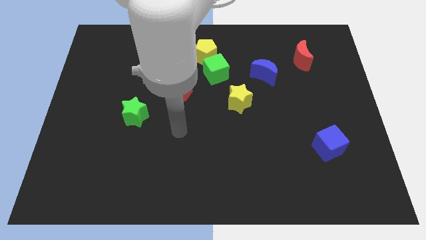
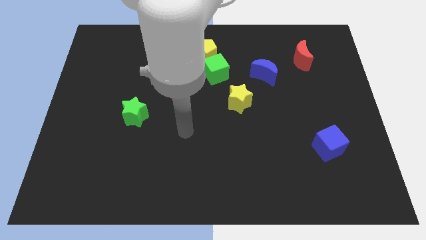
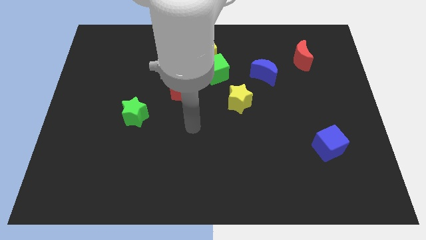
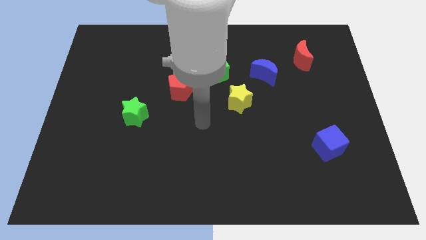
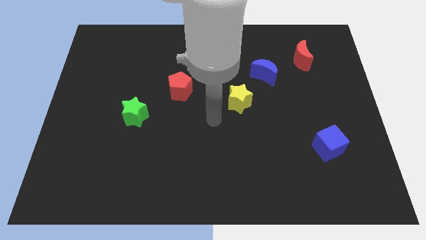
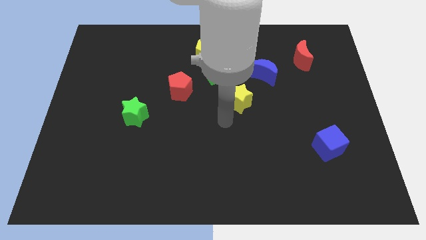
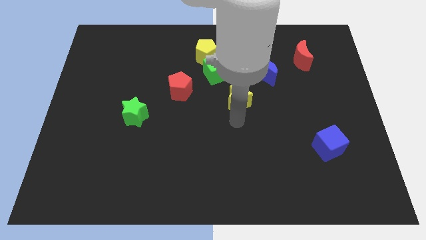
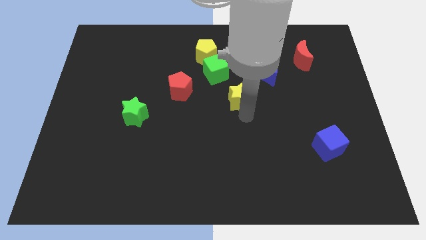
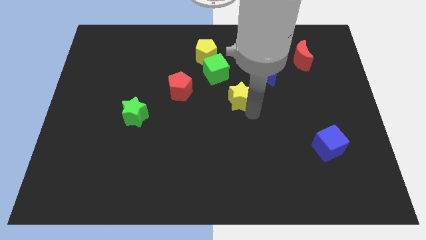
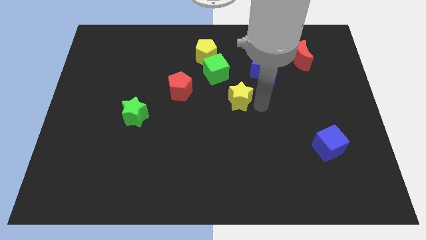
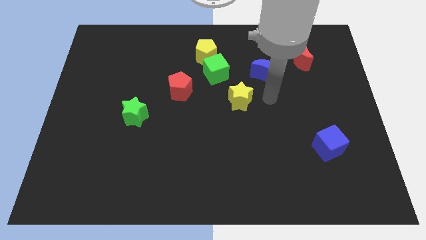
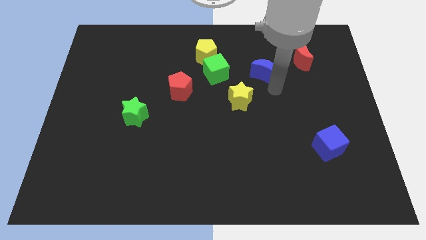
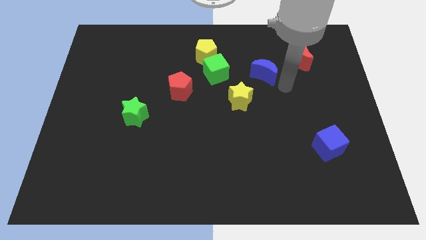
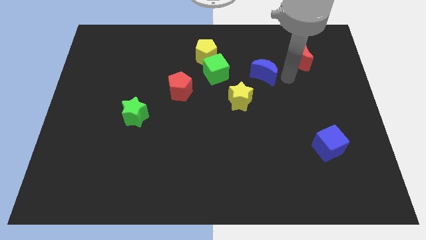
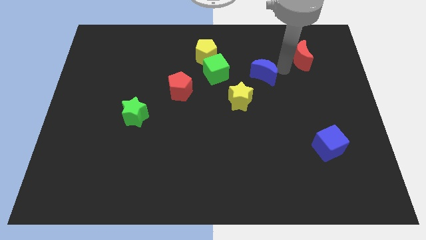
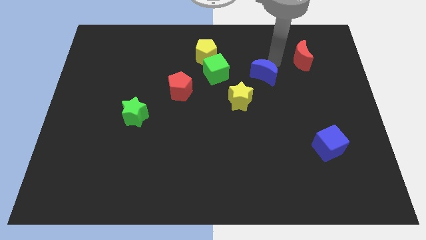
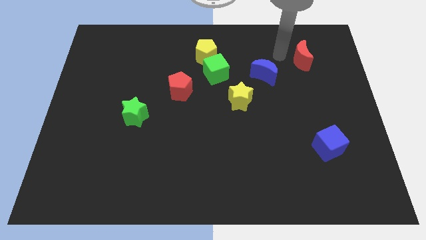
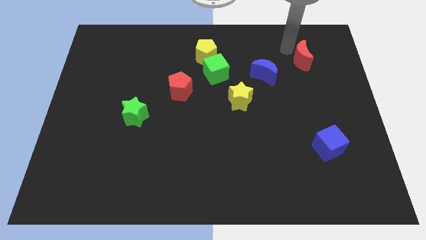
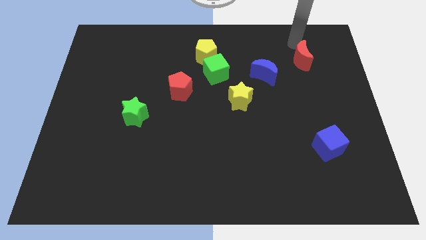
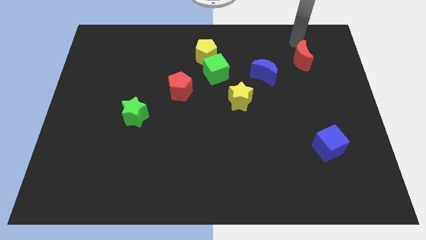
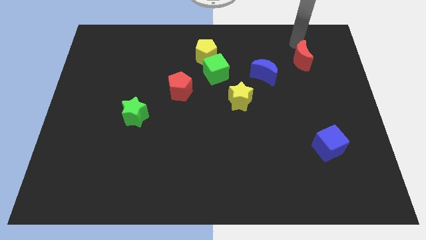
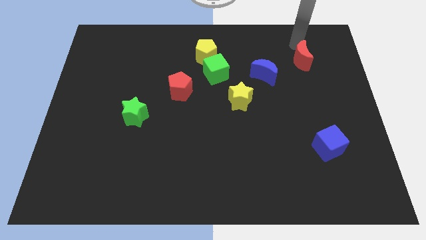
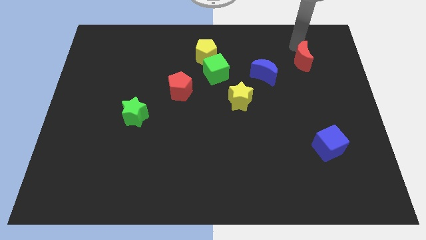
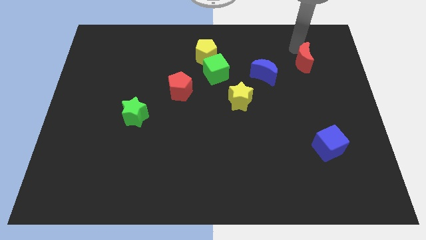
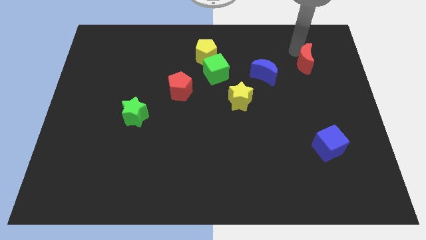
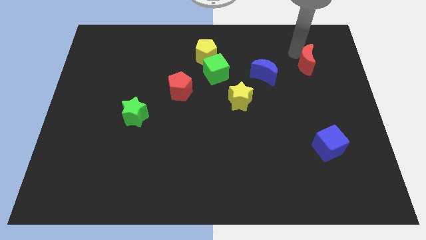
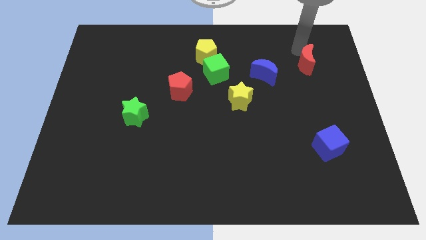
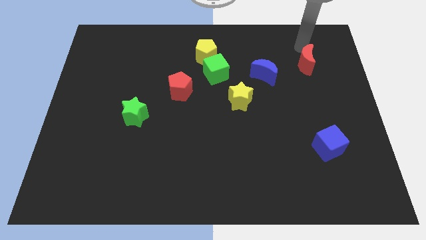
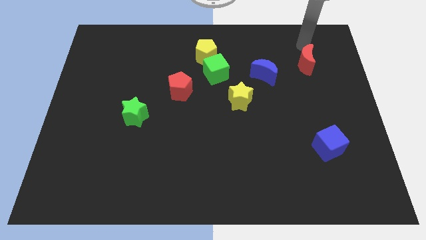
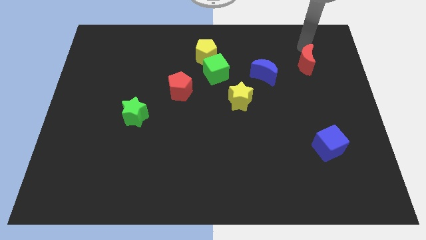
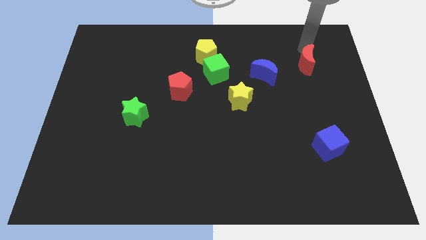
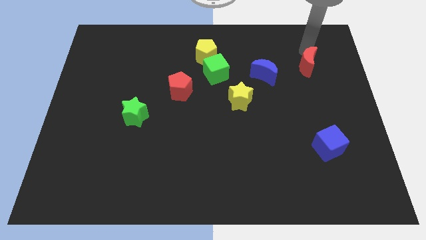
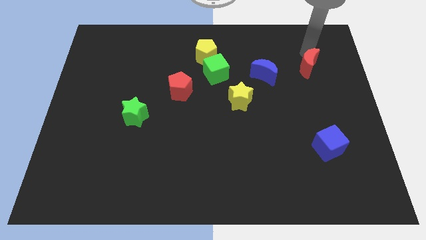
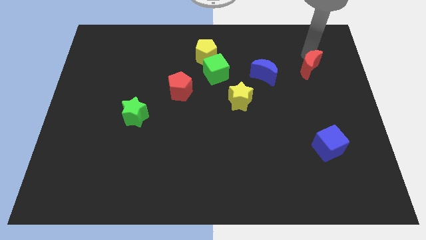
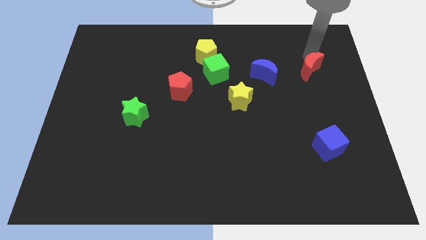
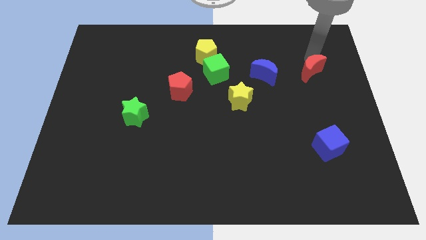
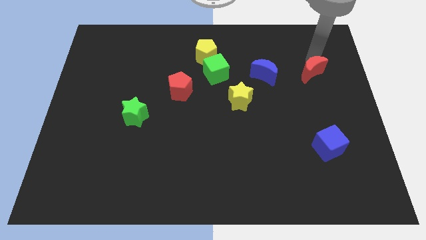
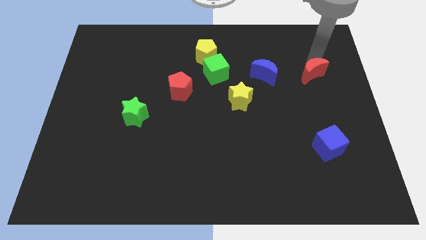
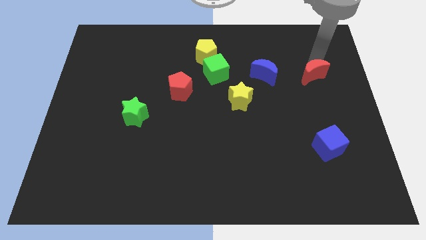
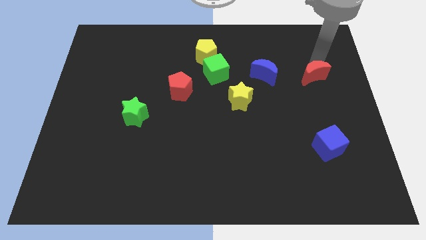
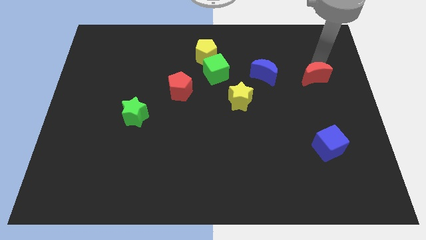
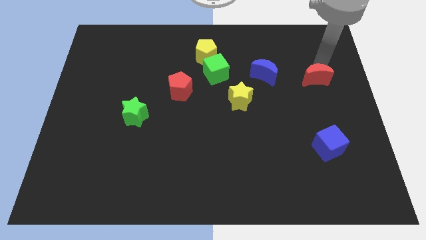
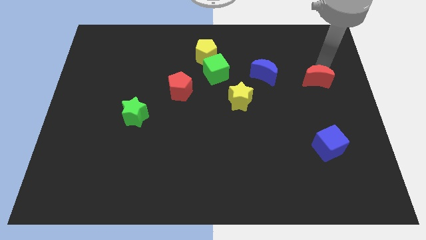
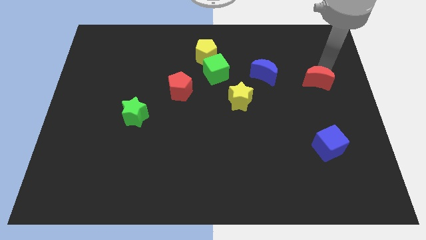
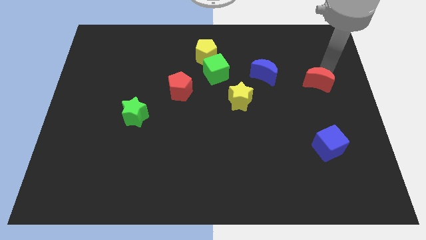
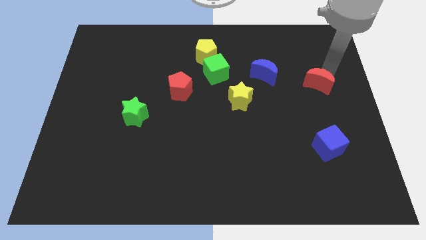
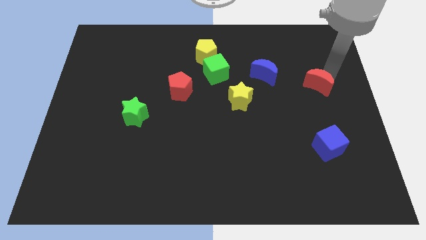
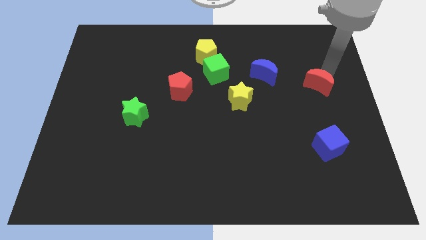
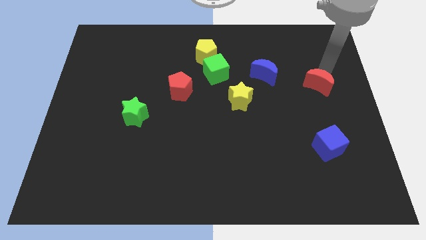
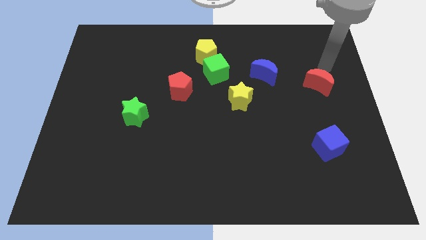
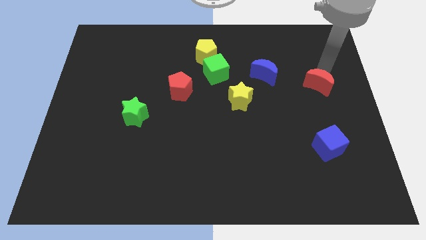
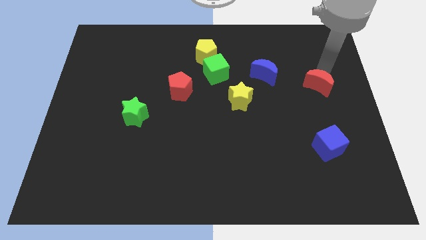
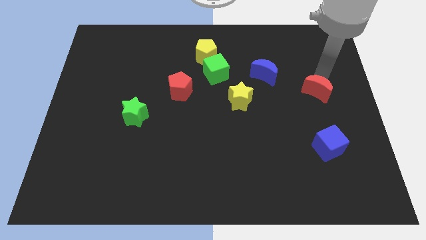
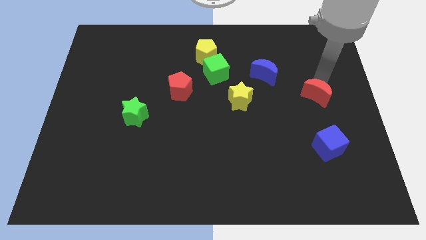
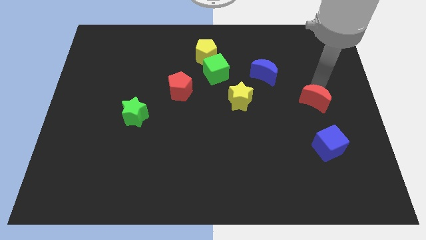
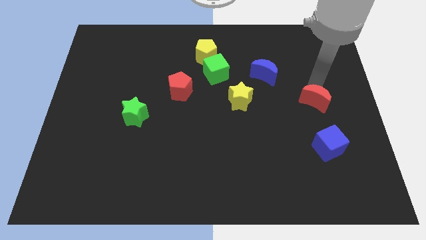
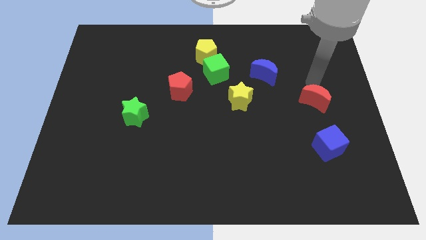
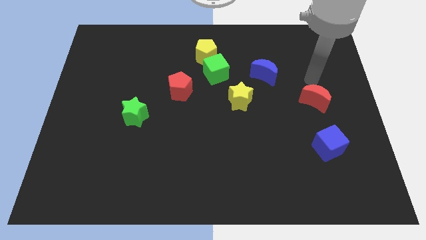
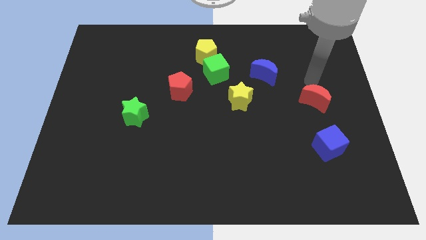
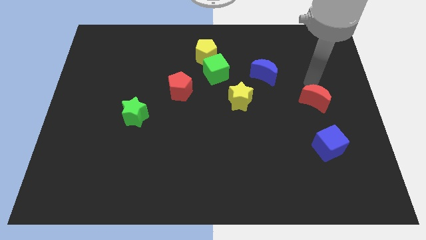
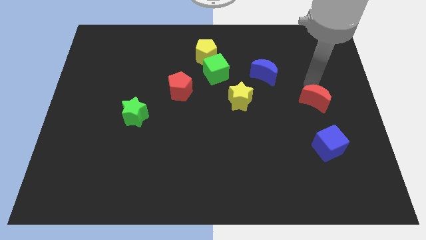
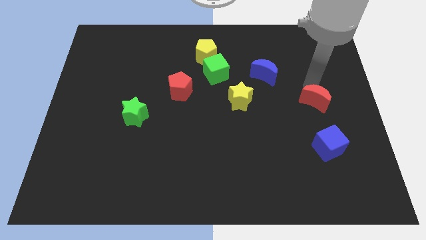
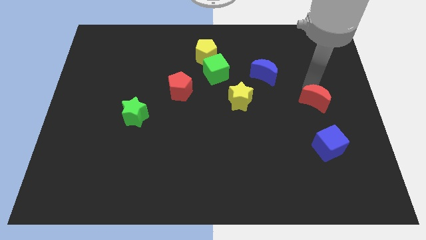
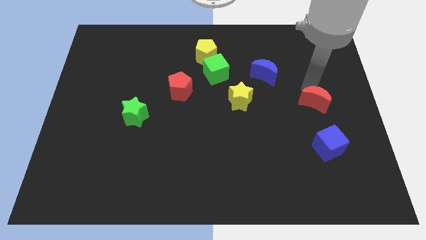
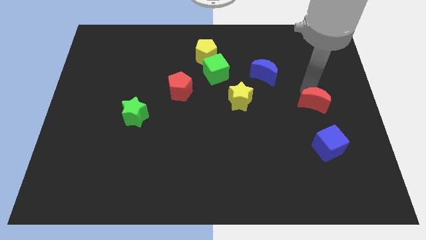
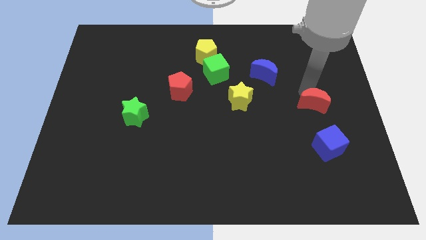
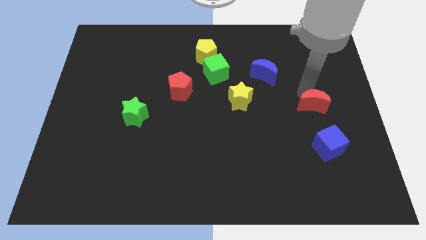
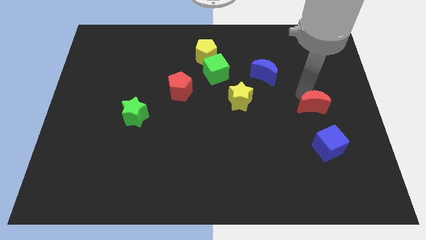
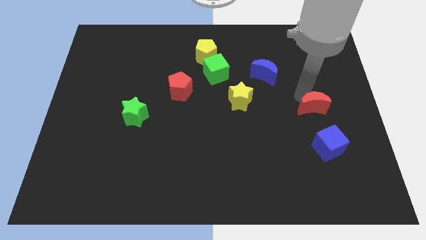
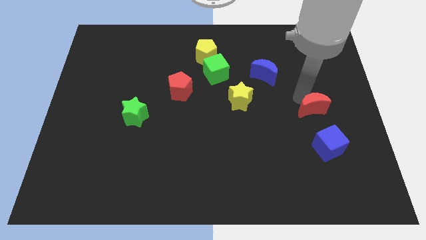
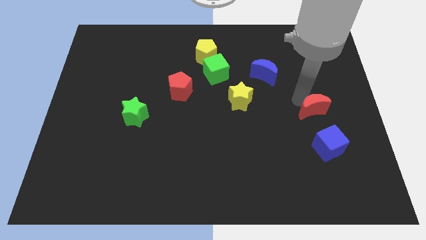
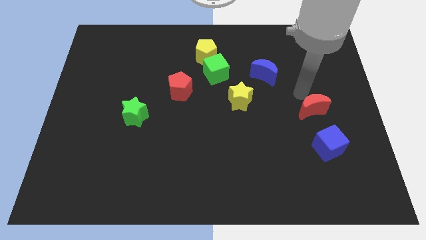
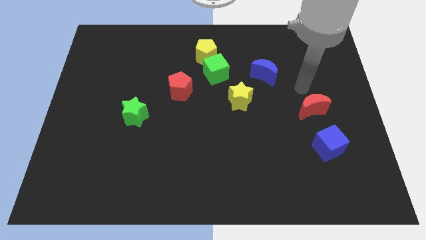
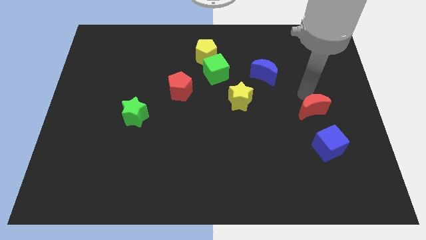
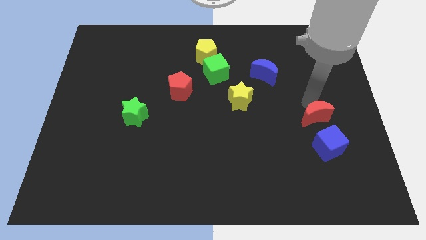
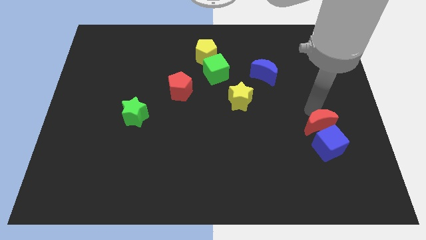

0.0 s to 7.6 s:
push the red moon close to the blue cube
